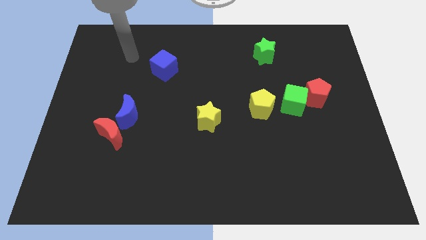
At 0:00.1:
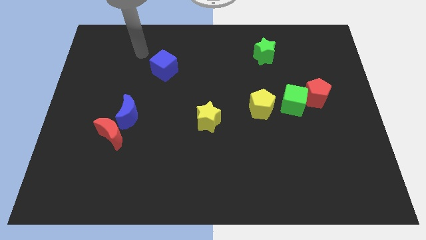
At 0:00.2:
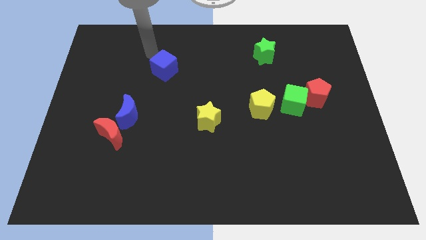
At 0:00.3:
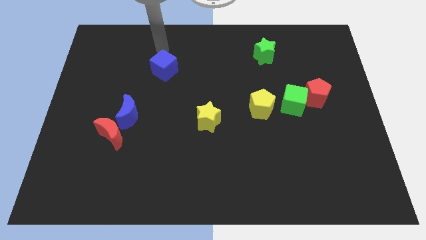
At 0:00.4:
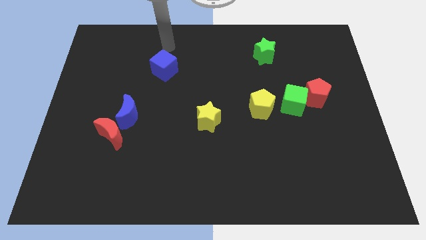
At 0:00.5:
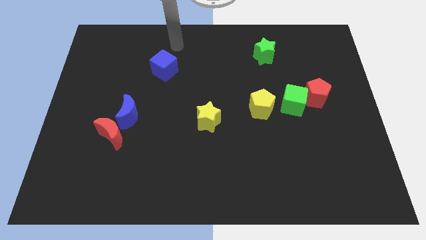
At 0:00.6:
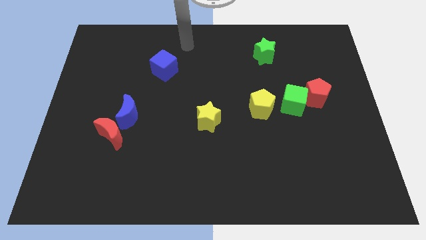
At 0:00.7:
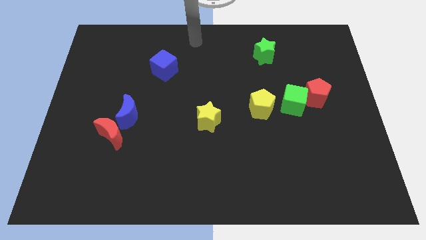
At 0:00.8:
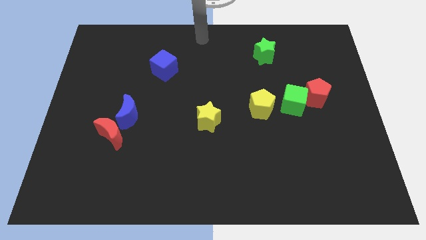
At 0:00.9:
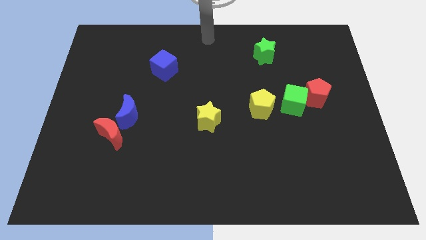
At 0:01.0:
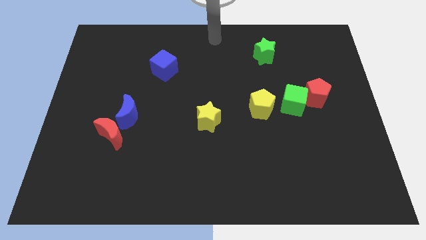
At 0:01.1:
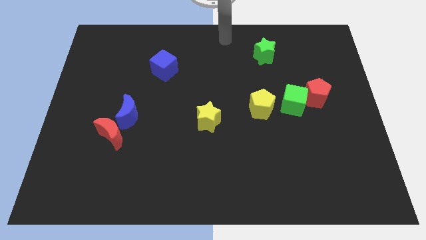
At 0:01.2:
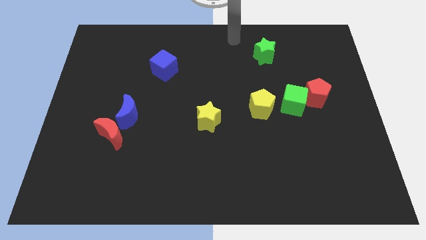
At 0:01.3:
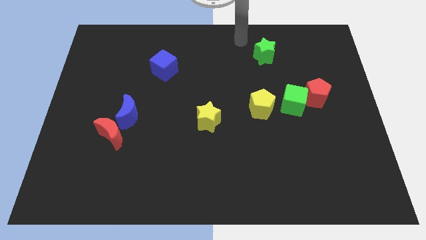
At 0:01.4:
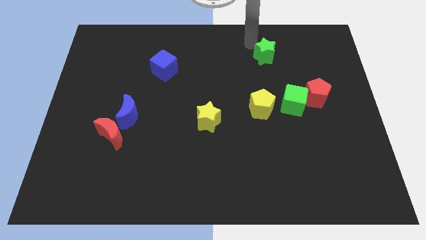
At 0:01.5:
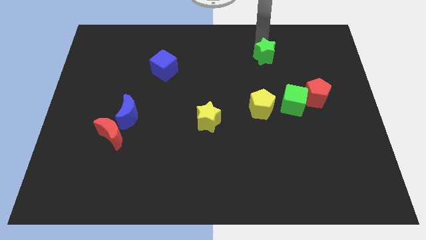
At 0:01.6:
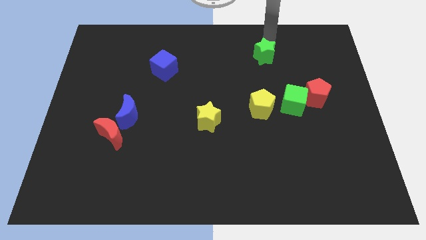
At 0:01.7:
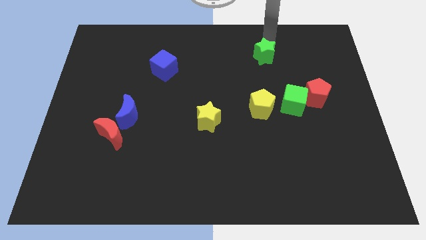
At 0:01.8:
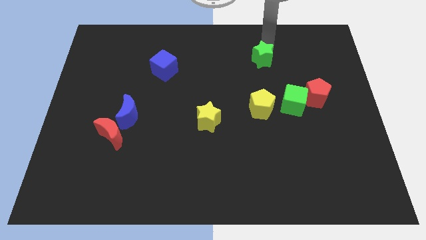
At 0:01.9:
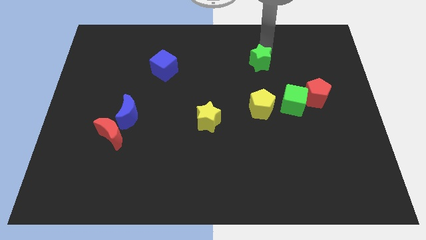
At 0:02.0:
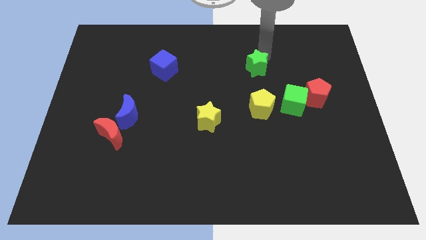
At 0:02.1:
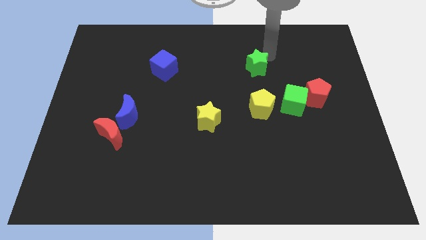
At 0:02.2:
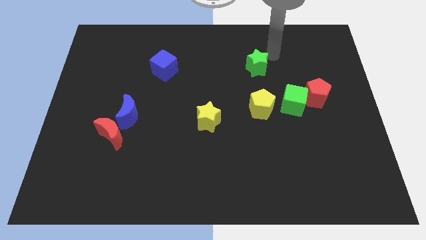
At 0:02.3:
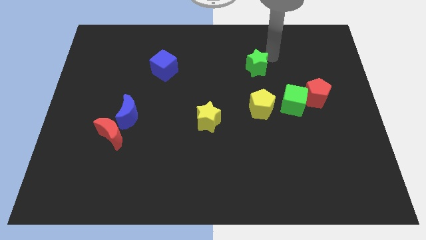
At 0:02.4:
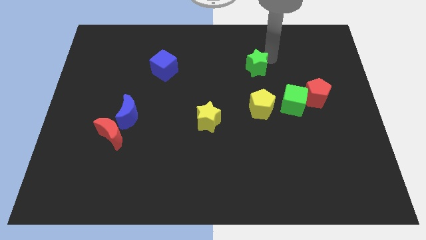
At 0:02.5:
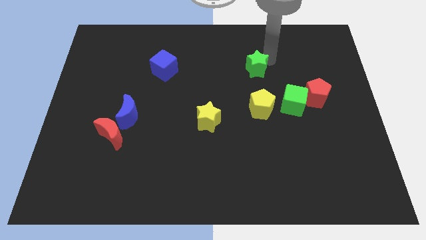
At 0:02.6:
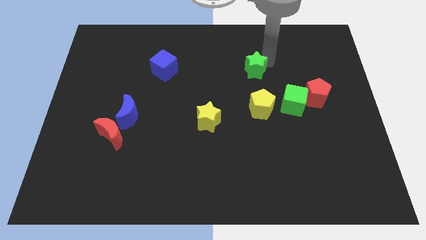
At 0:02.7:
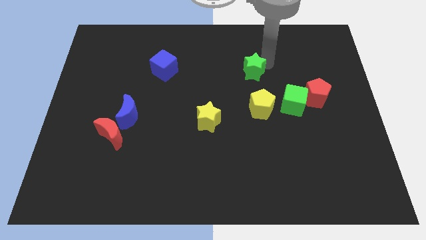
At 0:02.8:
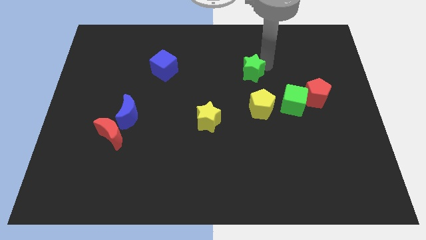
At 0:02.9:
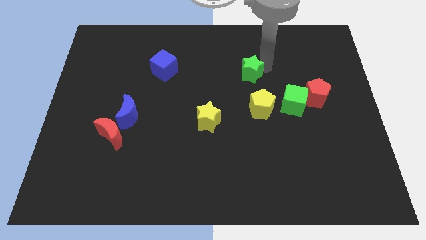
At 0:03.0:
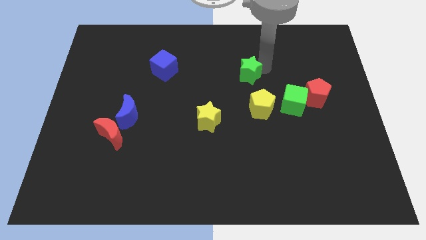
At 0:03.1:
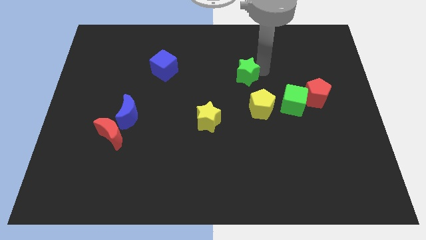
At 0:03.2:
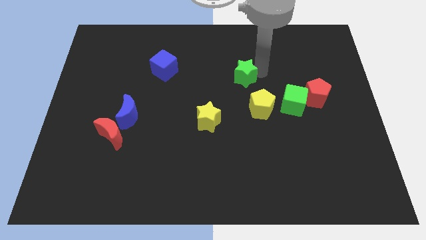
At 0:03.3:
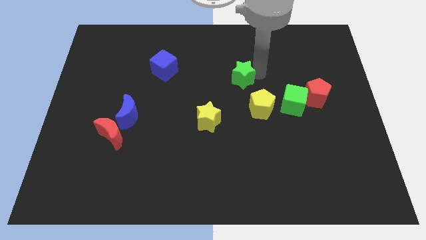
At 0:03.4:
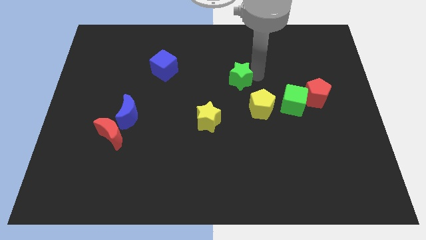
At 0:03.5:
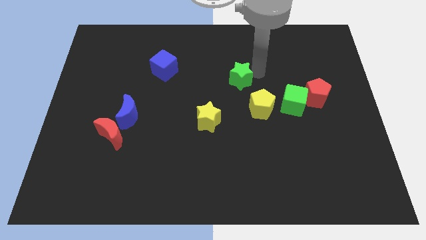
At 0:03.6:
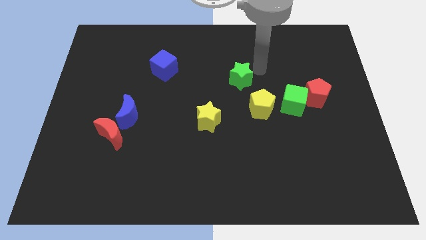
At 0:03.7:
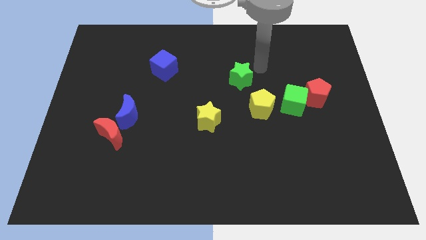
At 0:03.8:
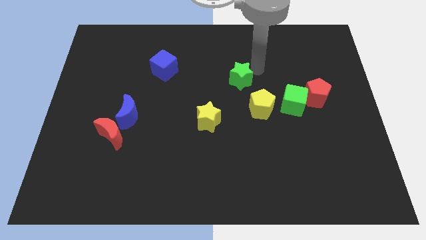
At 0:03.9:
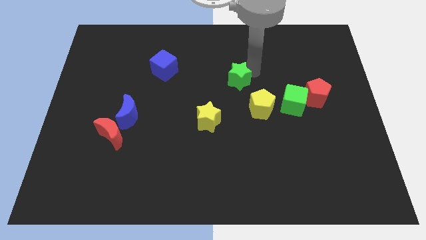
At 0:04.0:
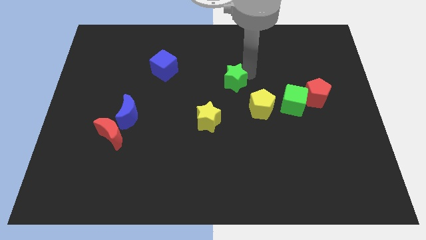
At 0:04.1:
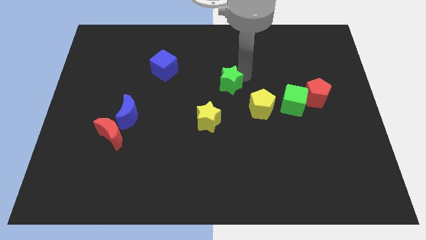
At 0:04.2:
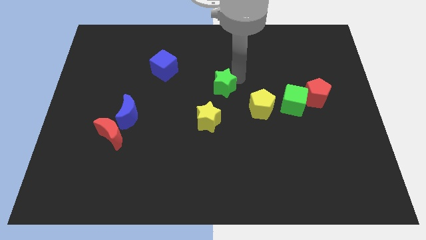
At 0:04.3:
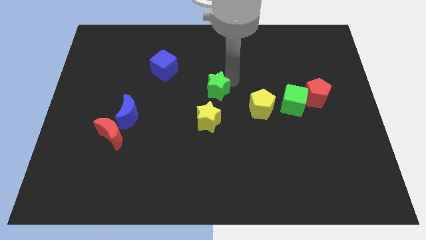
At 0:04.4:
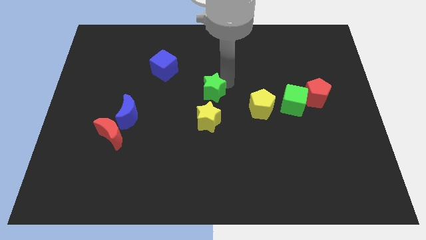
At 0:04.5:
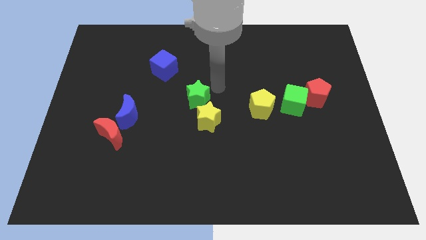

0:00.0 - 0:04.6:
move the green star diagonally down and left

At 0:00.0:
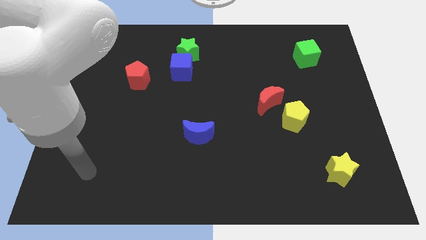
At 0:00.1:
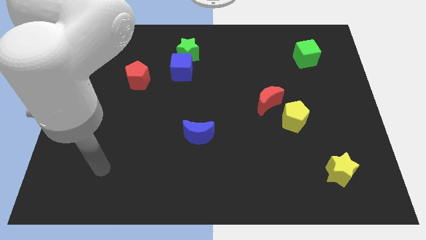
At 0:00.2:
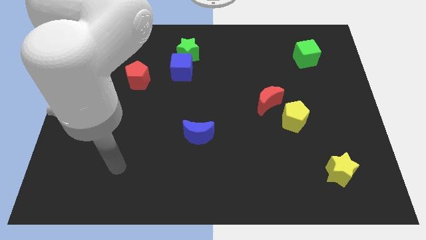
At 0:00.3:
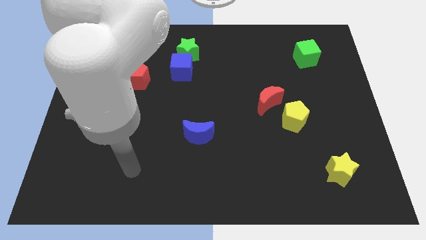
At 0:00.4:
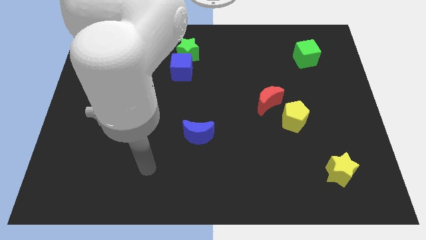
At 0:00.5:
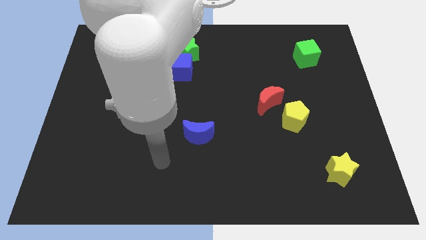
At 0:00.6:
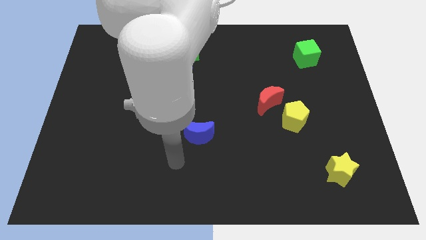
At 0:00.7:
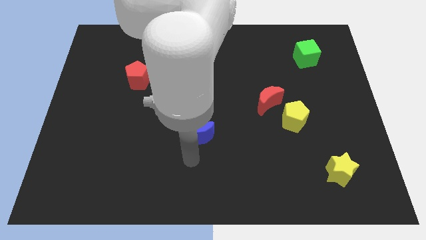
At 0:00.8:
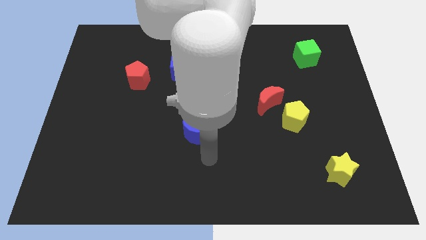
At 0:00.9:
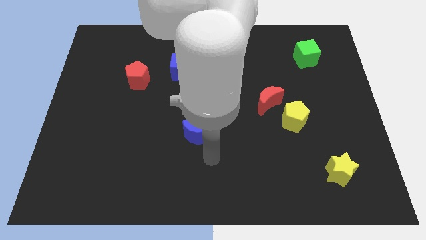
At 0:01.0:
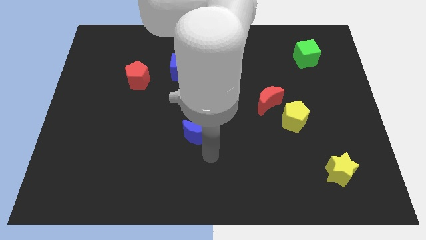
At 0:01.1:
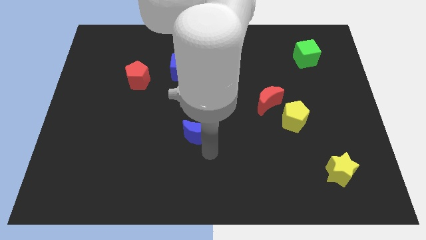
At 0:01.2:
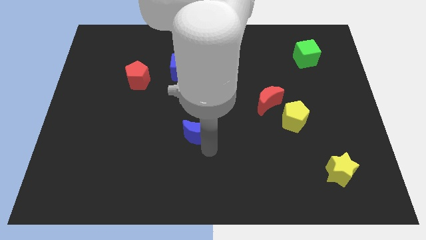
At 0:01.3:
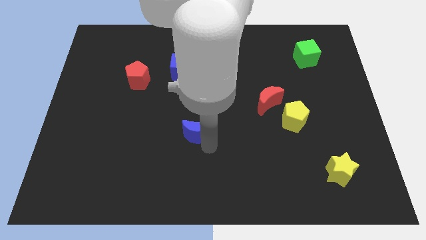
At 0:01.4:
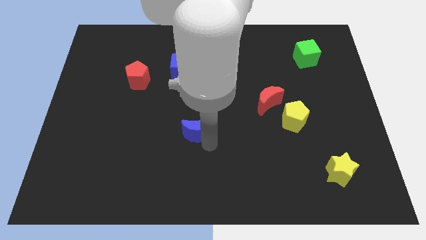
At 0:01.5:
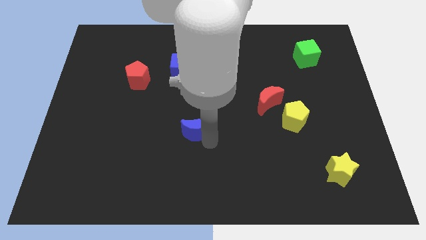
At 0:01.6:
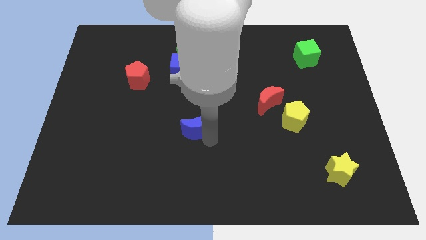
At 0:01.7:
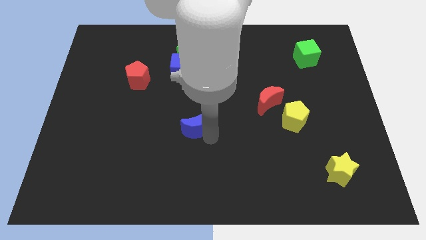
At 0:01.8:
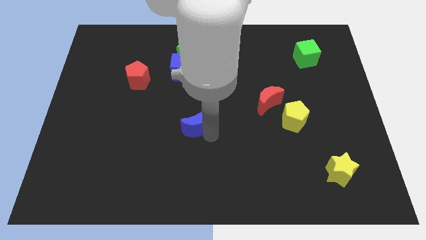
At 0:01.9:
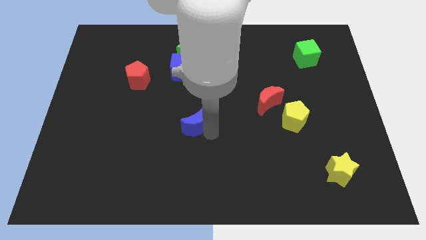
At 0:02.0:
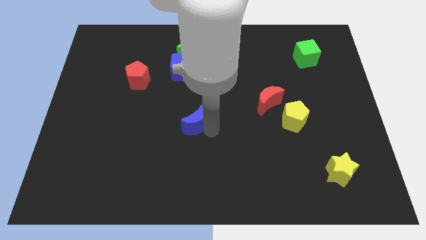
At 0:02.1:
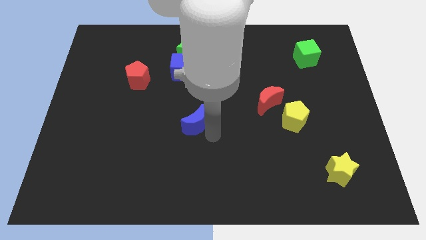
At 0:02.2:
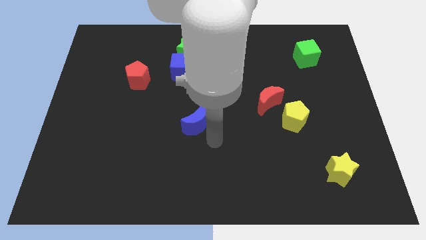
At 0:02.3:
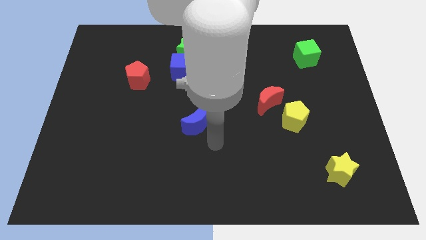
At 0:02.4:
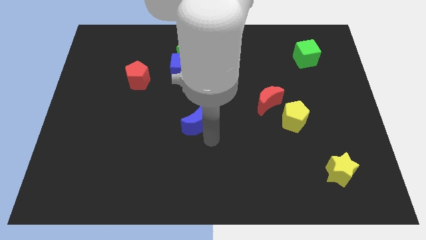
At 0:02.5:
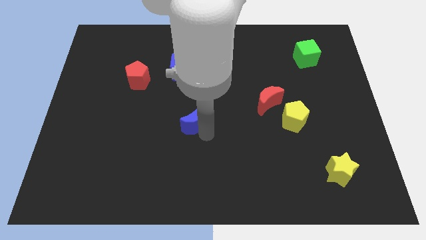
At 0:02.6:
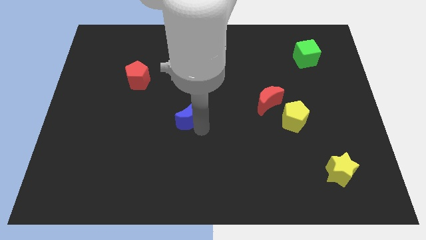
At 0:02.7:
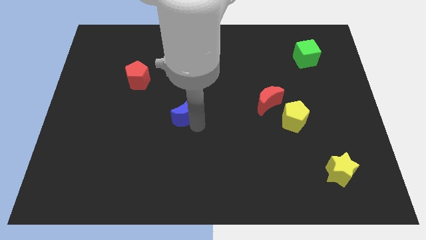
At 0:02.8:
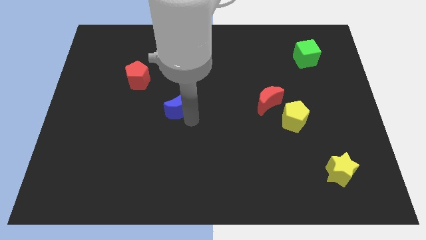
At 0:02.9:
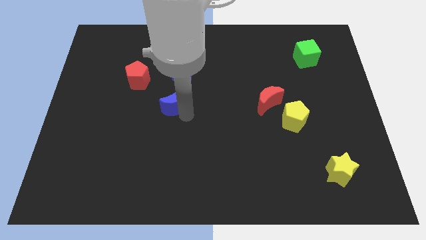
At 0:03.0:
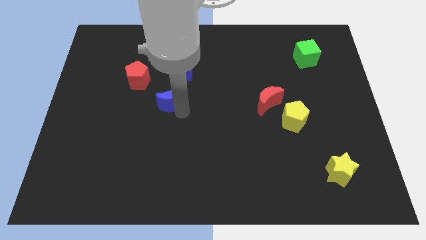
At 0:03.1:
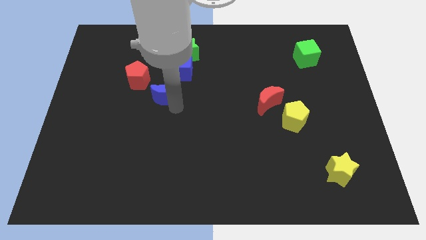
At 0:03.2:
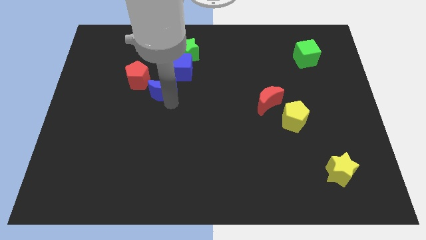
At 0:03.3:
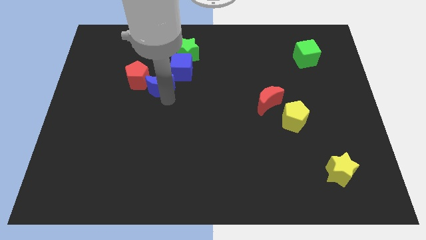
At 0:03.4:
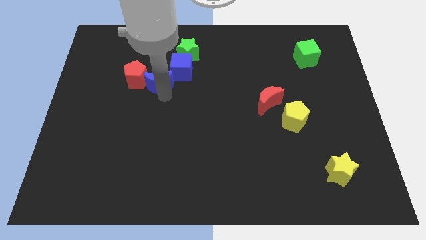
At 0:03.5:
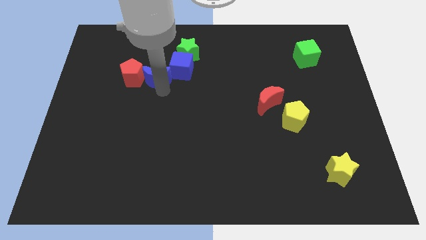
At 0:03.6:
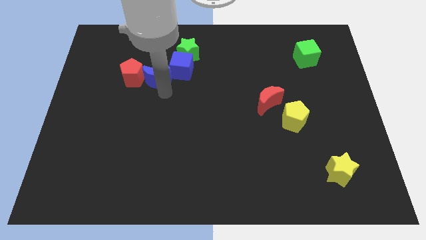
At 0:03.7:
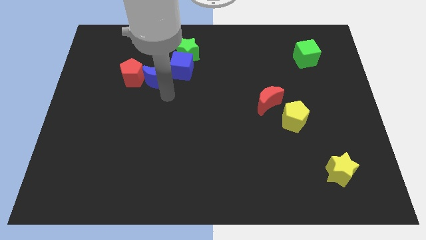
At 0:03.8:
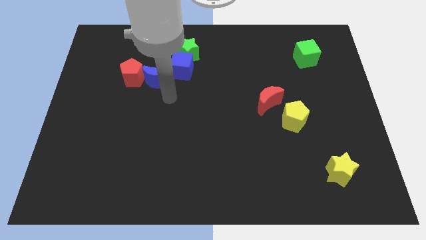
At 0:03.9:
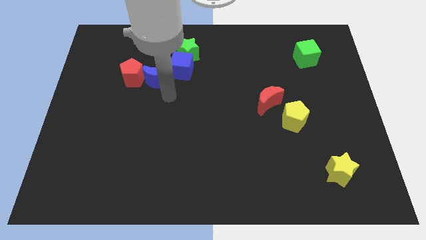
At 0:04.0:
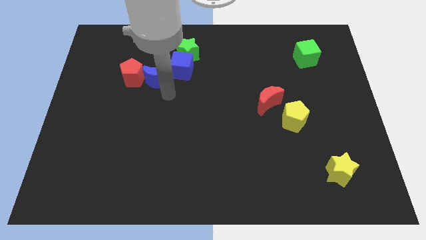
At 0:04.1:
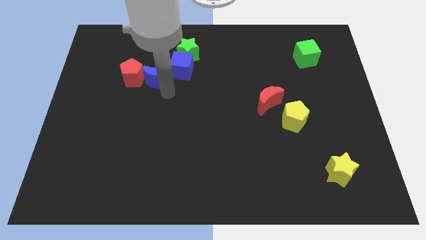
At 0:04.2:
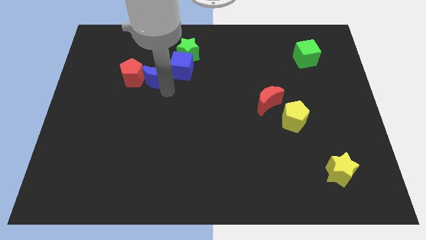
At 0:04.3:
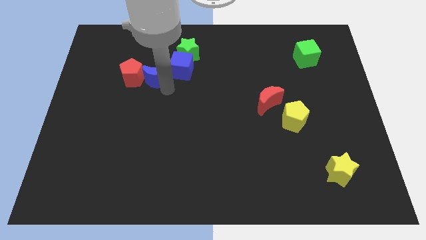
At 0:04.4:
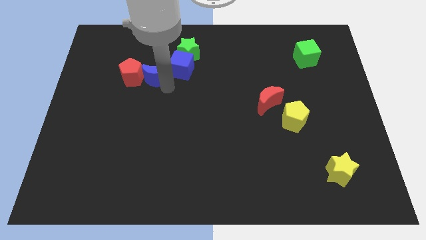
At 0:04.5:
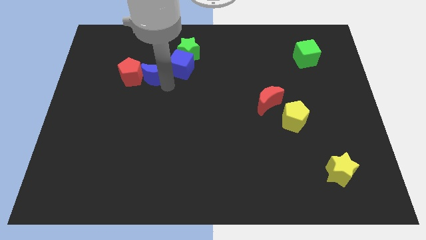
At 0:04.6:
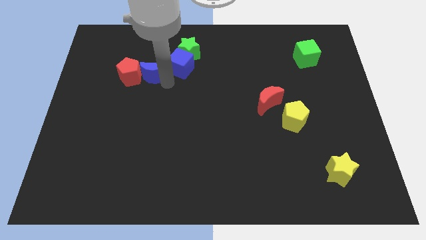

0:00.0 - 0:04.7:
push the blue moon up and left
